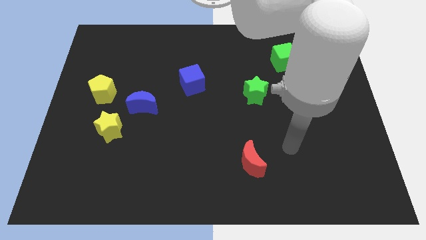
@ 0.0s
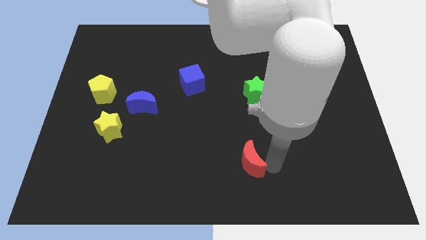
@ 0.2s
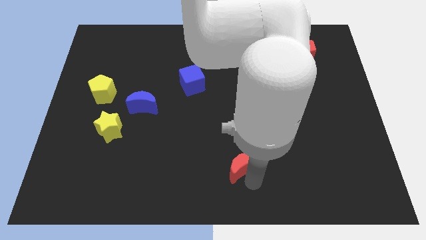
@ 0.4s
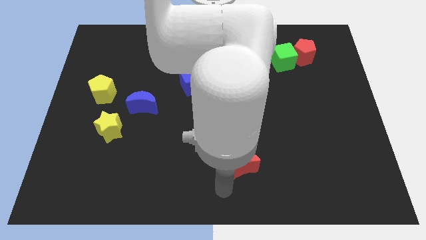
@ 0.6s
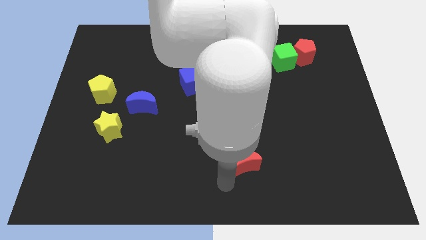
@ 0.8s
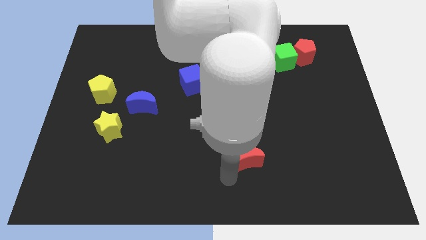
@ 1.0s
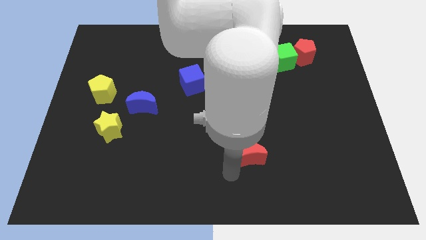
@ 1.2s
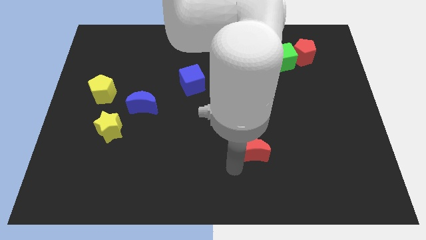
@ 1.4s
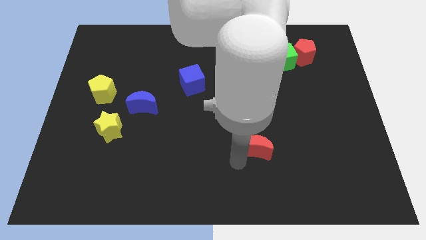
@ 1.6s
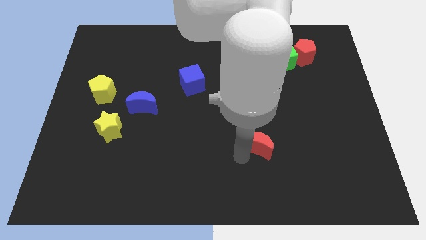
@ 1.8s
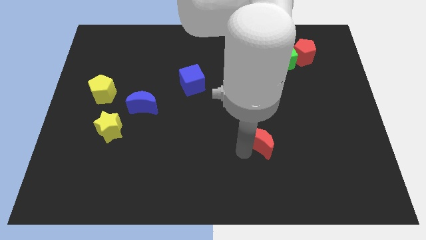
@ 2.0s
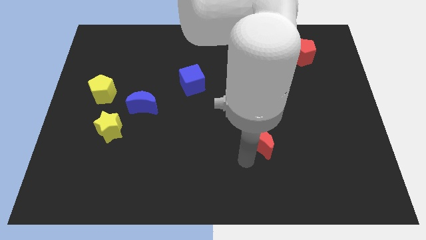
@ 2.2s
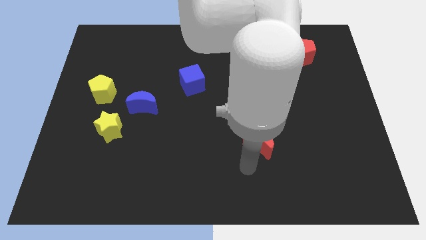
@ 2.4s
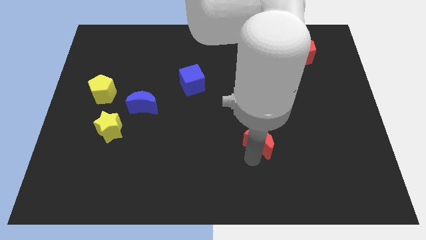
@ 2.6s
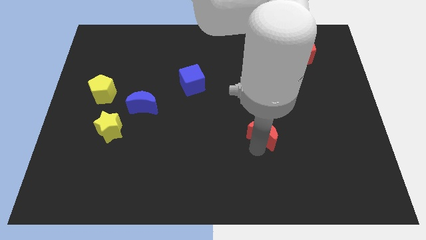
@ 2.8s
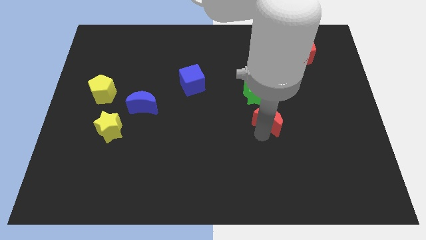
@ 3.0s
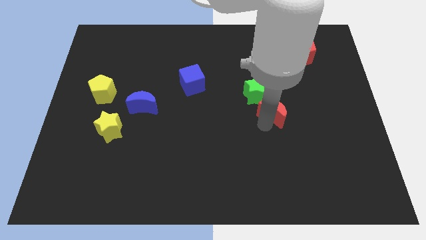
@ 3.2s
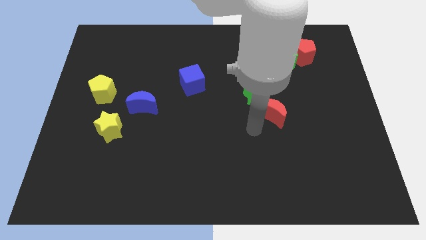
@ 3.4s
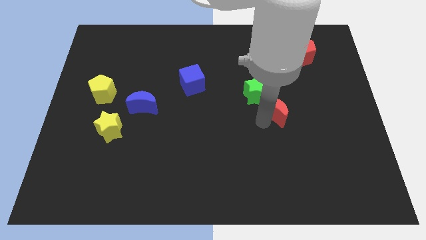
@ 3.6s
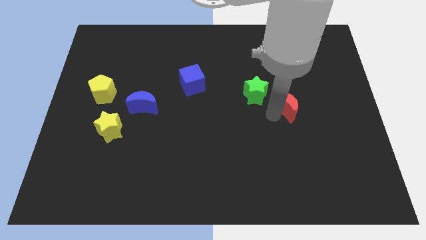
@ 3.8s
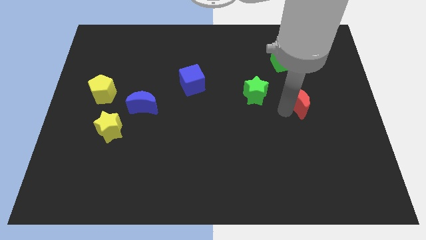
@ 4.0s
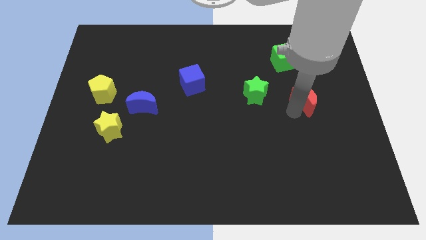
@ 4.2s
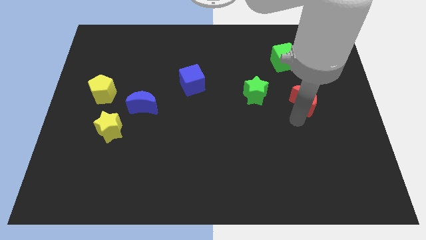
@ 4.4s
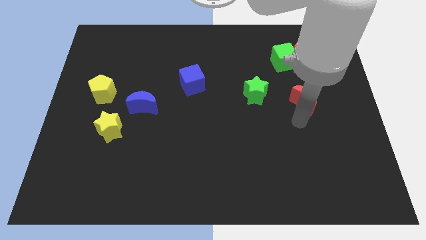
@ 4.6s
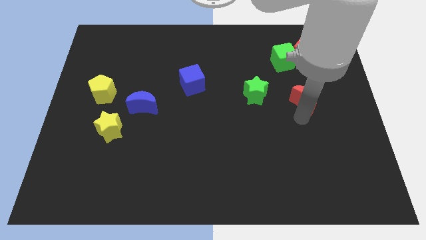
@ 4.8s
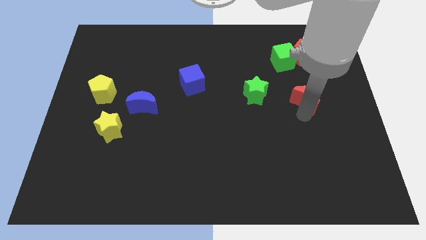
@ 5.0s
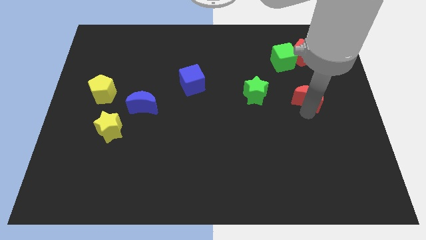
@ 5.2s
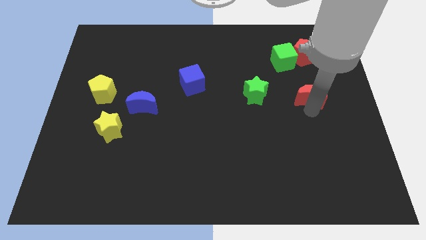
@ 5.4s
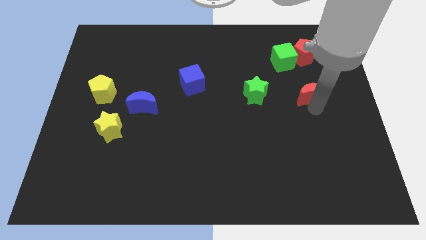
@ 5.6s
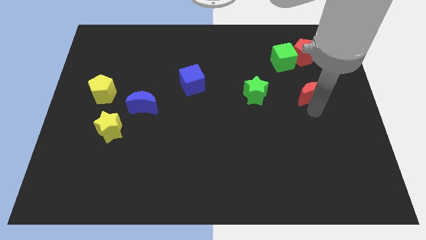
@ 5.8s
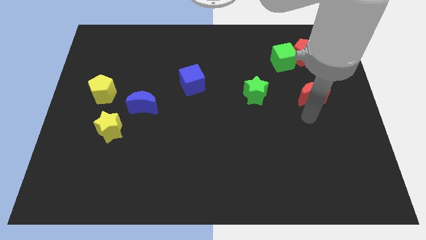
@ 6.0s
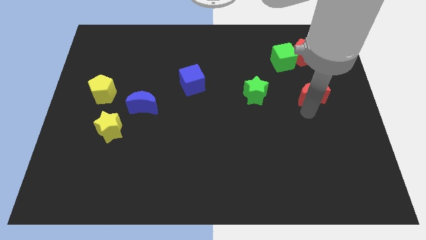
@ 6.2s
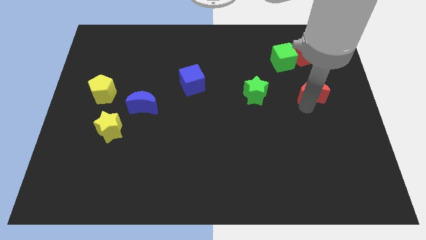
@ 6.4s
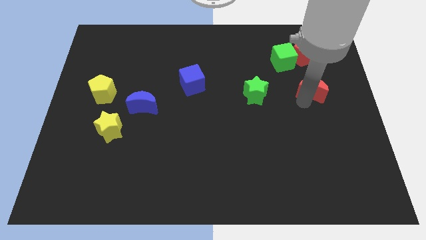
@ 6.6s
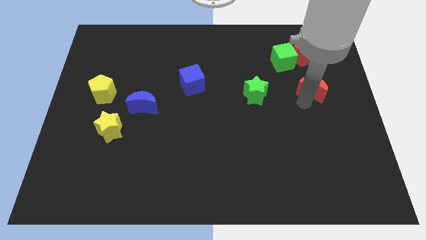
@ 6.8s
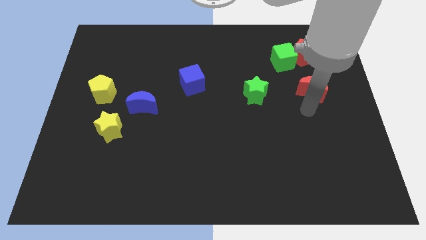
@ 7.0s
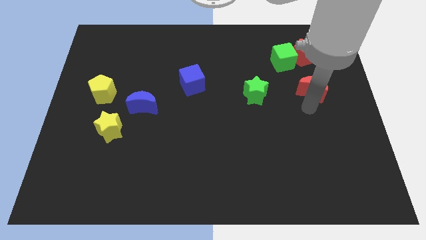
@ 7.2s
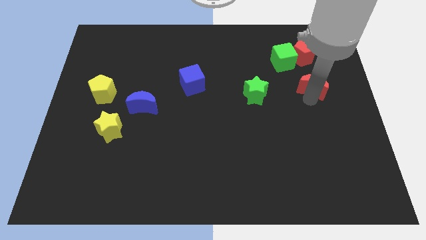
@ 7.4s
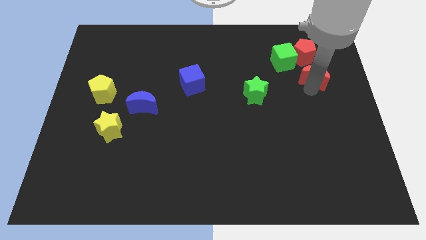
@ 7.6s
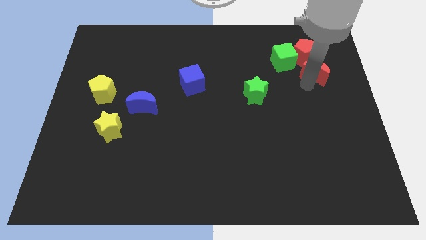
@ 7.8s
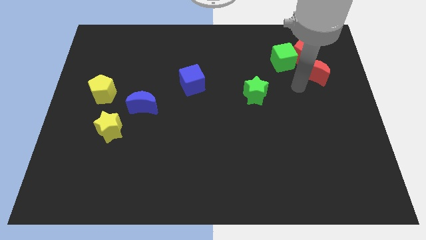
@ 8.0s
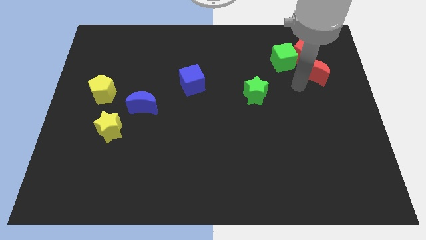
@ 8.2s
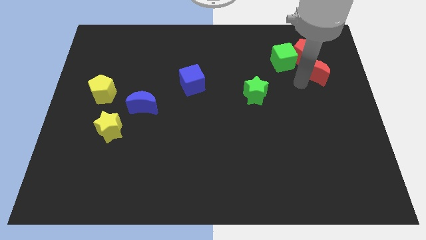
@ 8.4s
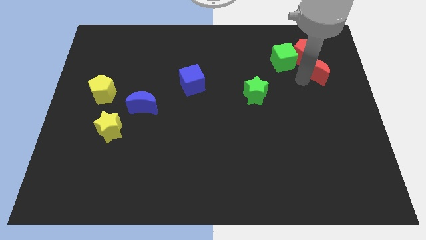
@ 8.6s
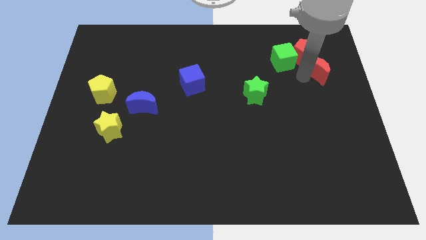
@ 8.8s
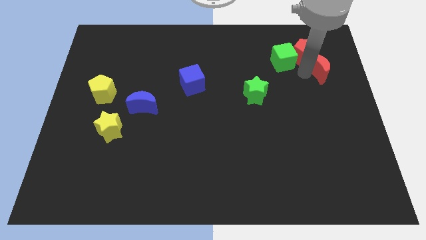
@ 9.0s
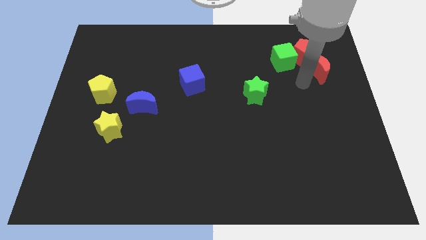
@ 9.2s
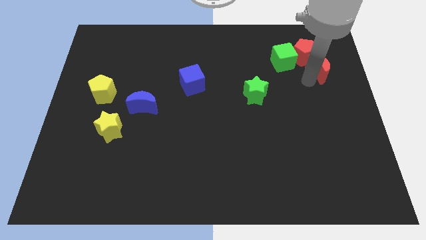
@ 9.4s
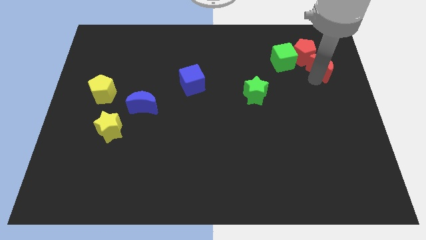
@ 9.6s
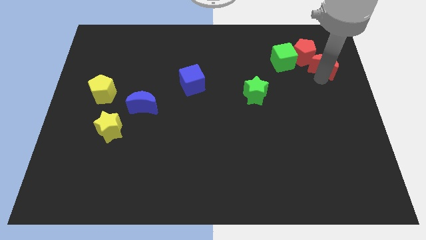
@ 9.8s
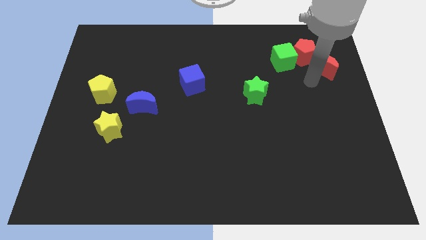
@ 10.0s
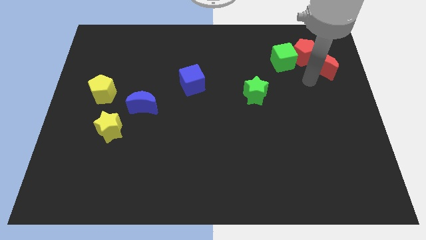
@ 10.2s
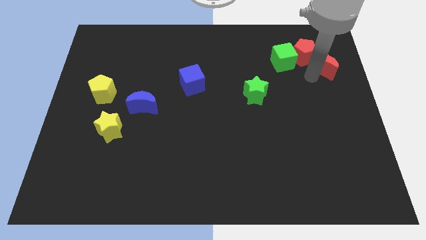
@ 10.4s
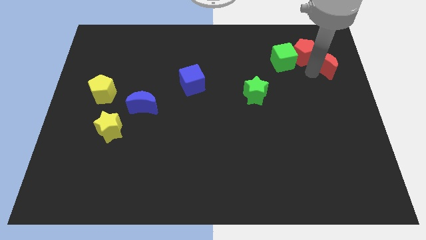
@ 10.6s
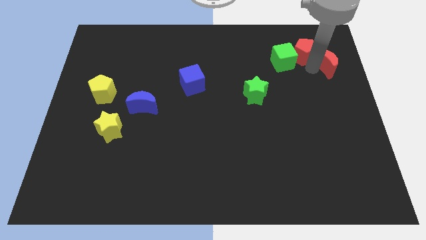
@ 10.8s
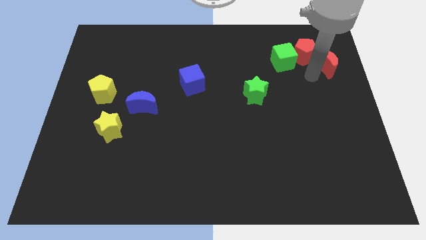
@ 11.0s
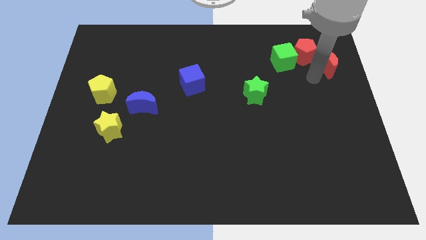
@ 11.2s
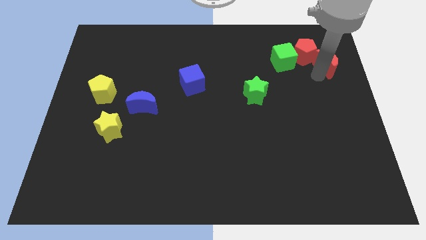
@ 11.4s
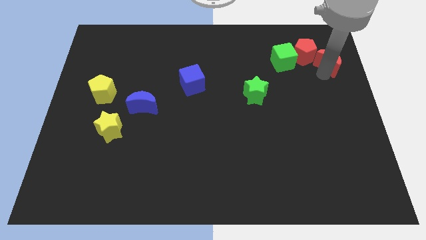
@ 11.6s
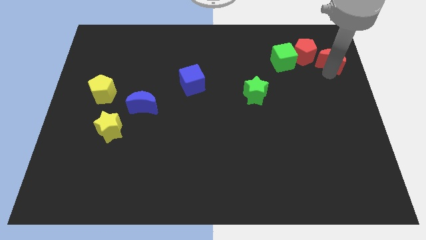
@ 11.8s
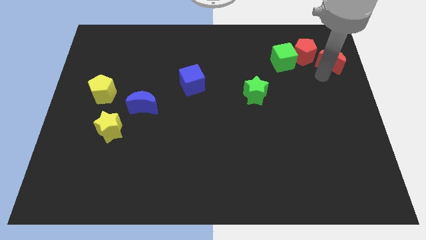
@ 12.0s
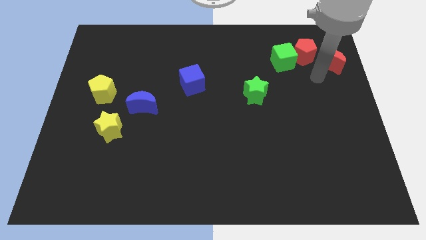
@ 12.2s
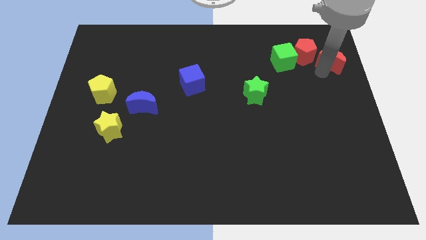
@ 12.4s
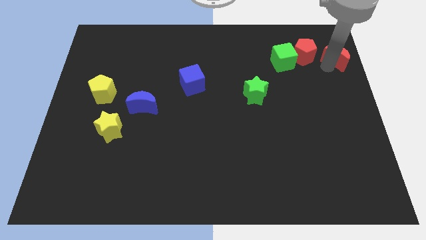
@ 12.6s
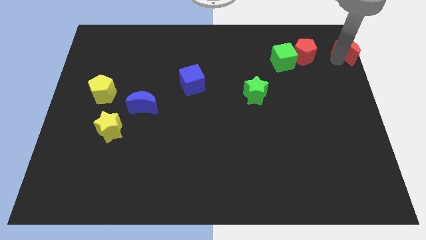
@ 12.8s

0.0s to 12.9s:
put the red moon to the top right corner
